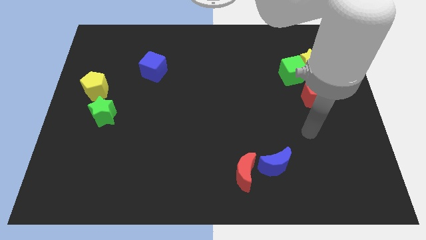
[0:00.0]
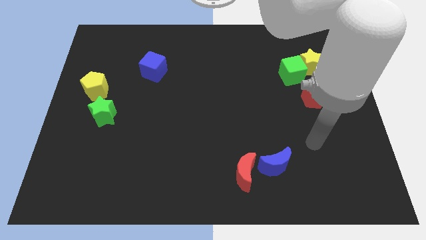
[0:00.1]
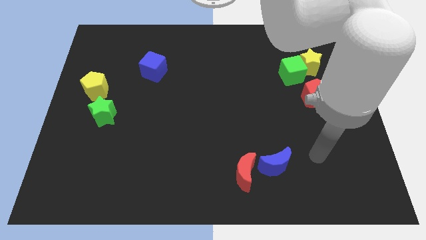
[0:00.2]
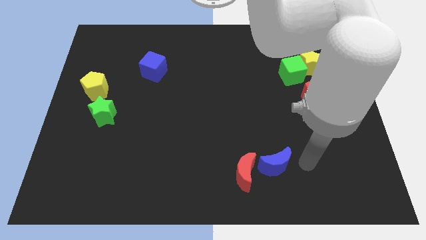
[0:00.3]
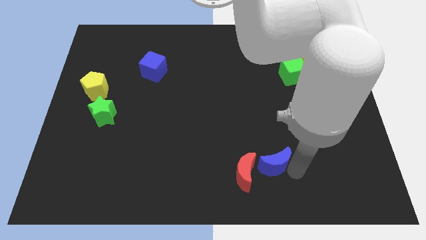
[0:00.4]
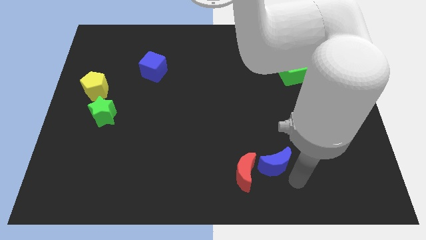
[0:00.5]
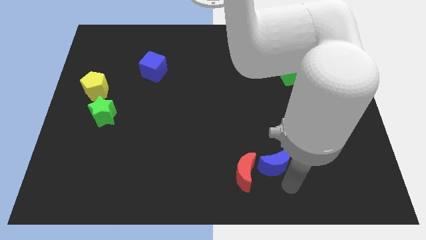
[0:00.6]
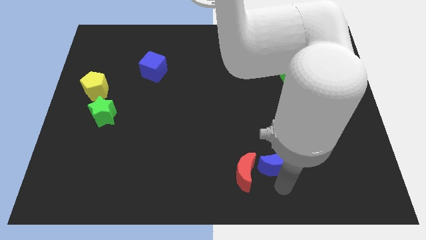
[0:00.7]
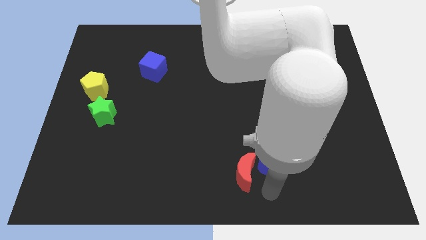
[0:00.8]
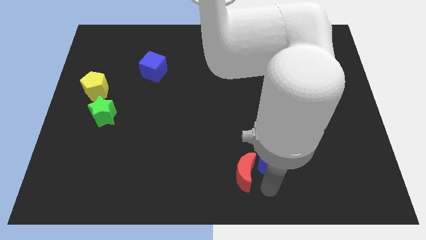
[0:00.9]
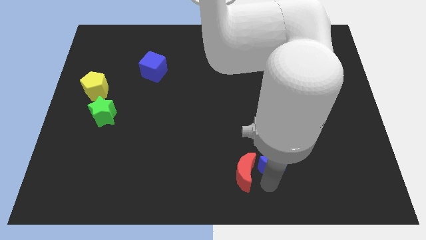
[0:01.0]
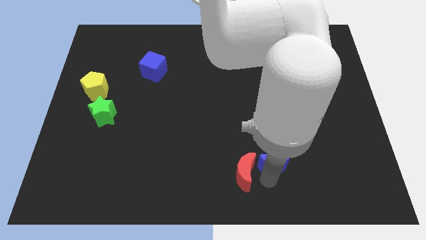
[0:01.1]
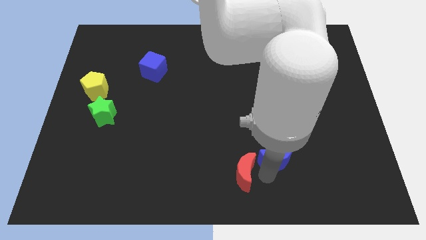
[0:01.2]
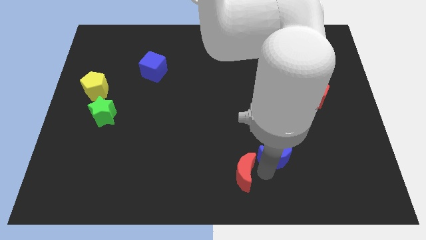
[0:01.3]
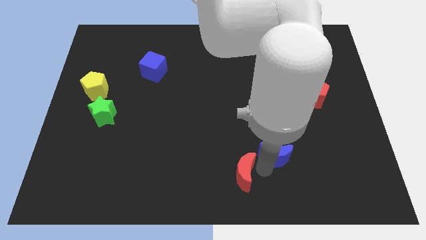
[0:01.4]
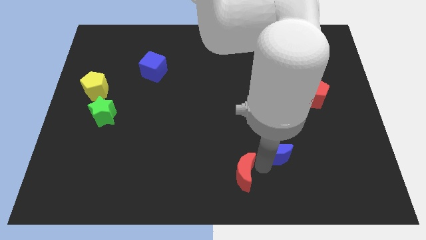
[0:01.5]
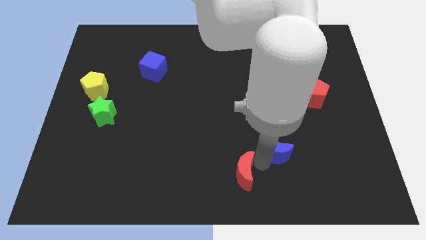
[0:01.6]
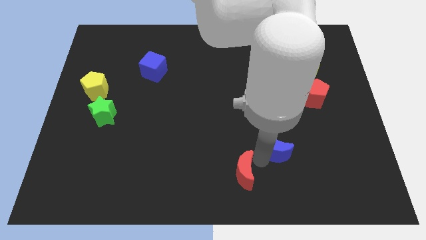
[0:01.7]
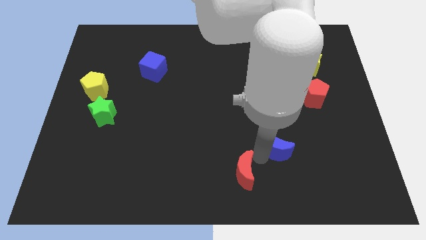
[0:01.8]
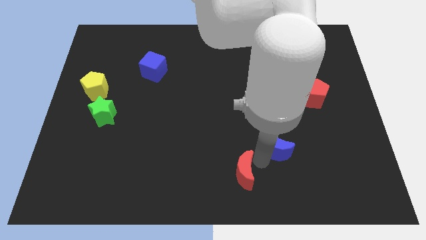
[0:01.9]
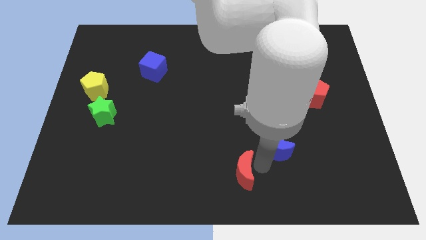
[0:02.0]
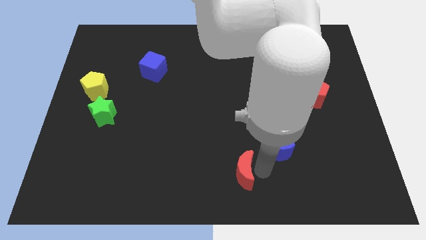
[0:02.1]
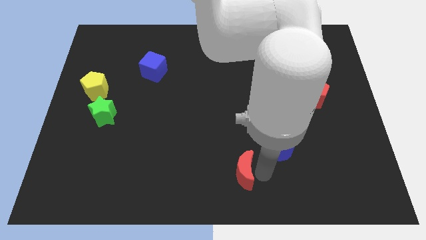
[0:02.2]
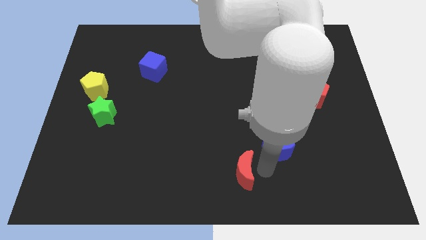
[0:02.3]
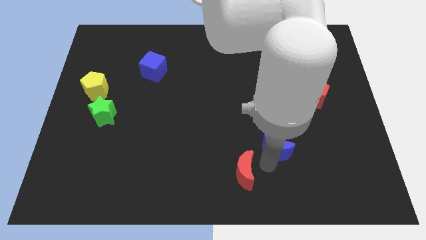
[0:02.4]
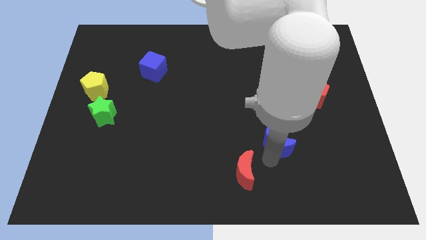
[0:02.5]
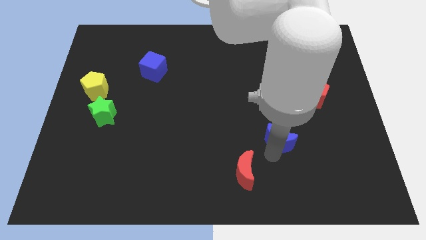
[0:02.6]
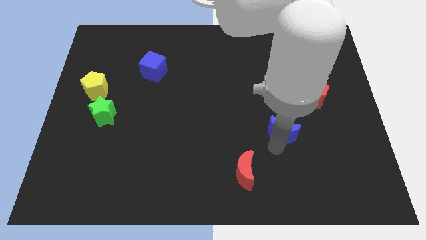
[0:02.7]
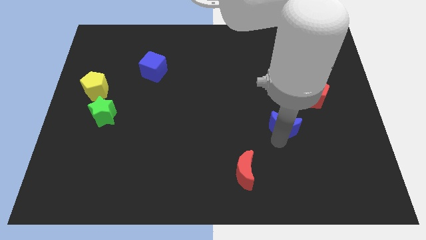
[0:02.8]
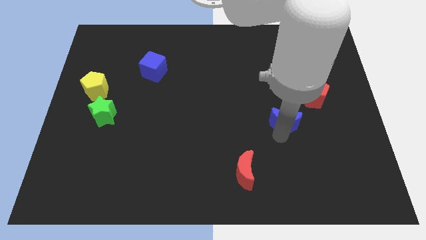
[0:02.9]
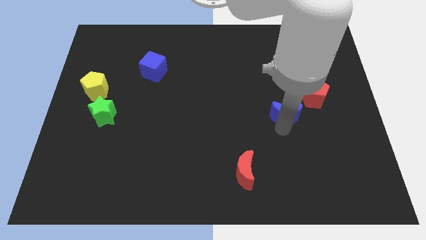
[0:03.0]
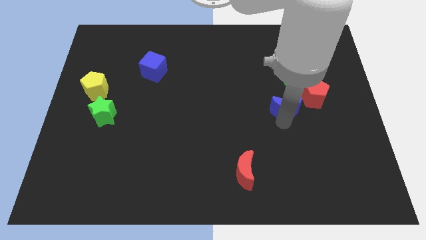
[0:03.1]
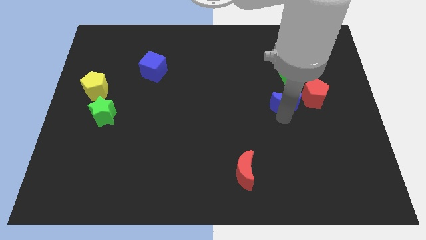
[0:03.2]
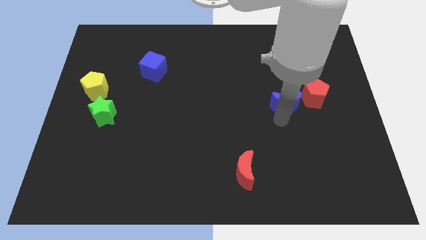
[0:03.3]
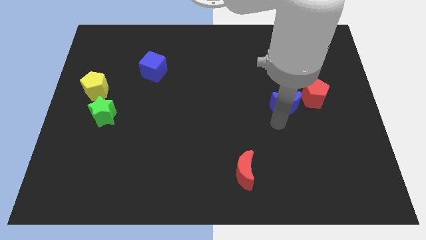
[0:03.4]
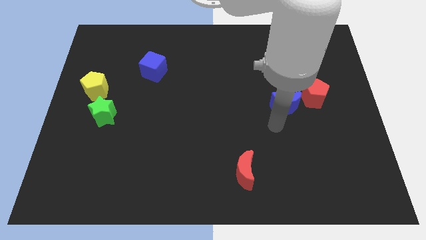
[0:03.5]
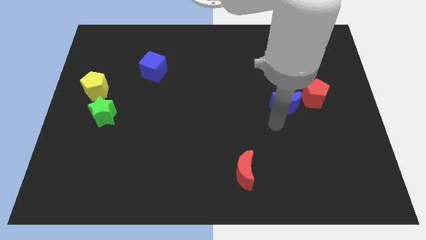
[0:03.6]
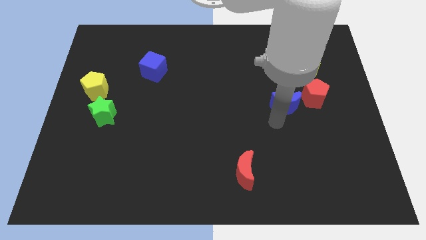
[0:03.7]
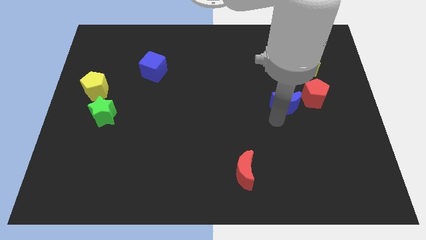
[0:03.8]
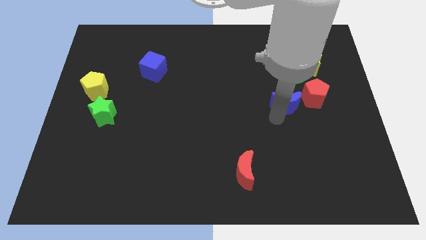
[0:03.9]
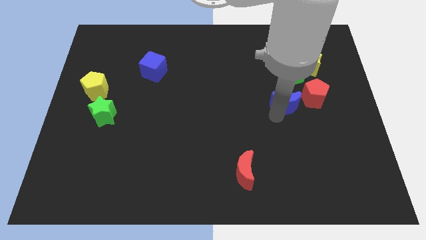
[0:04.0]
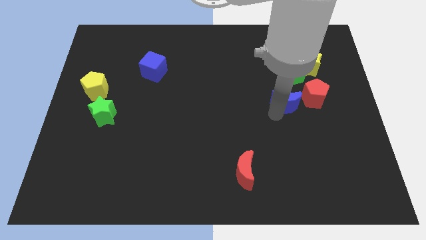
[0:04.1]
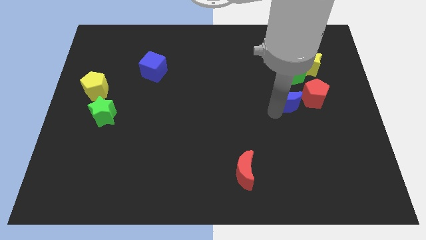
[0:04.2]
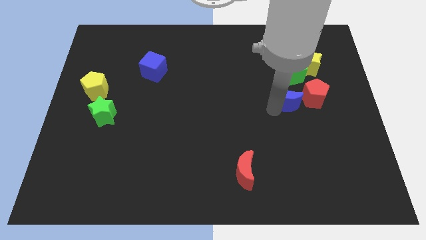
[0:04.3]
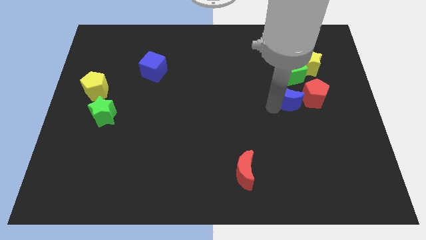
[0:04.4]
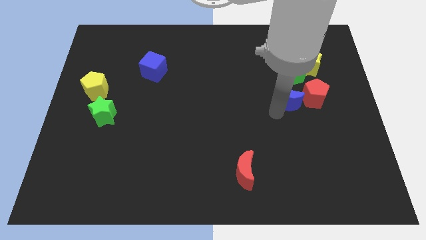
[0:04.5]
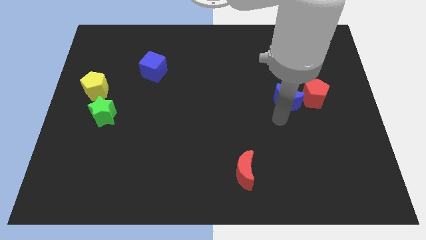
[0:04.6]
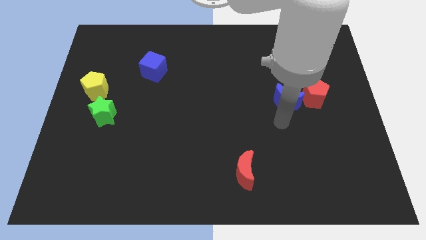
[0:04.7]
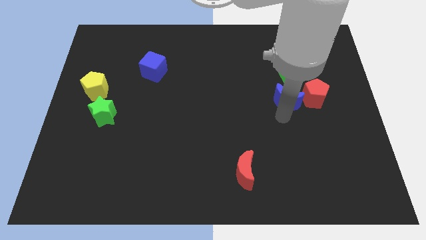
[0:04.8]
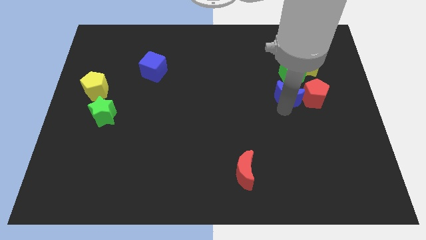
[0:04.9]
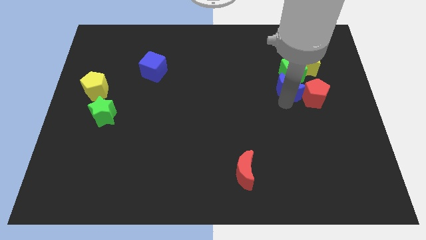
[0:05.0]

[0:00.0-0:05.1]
slide the blue moon next to the green cube

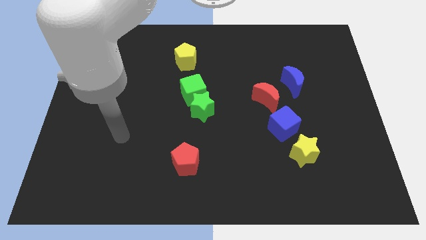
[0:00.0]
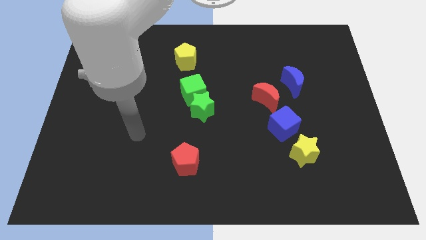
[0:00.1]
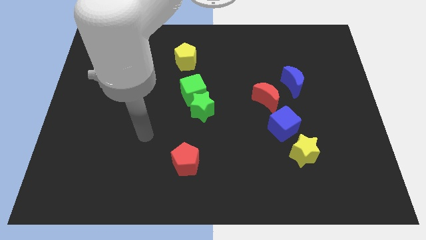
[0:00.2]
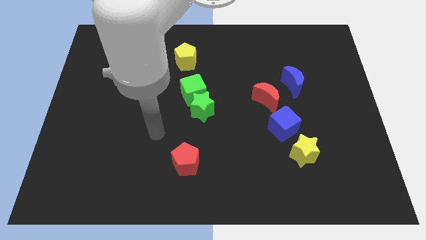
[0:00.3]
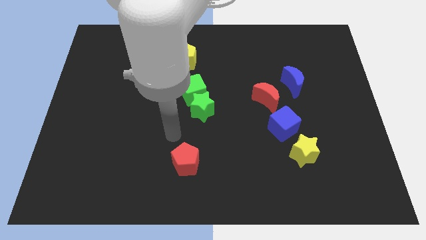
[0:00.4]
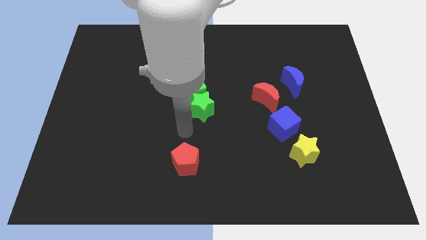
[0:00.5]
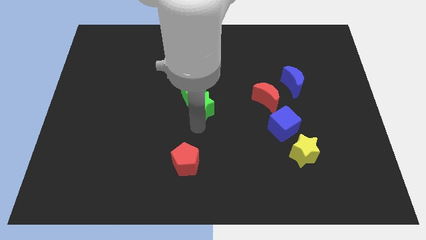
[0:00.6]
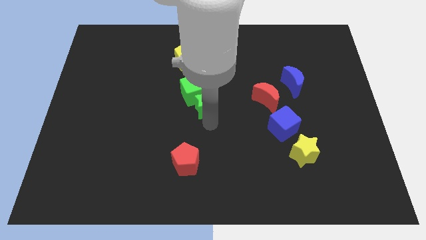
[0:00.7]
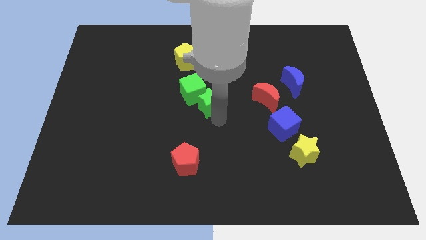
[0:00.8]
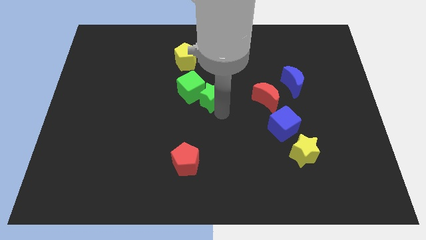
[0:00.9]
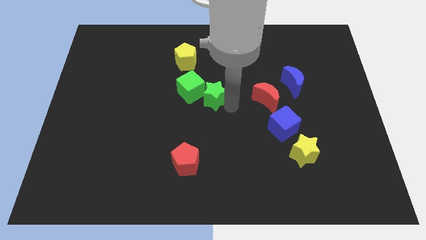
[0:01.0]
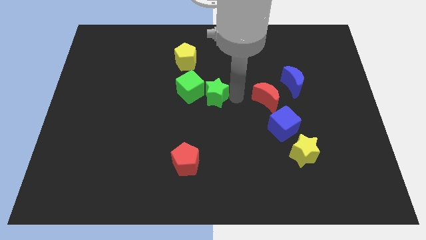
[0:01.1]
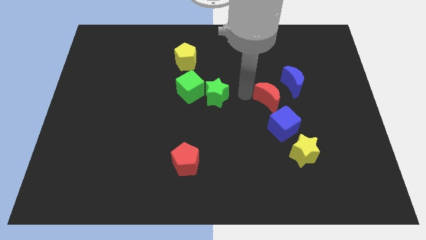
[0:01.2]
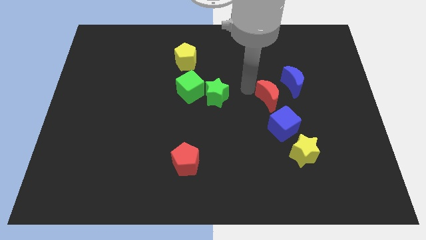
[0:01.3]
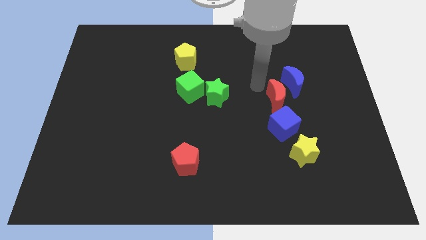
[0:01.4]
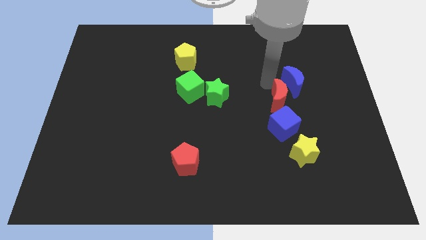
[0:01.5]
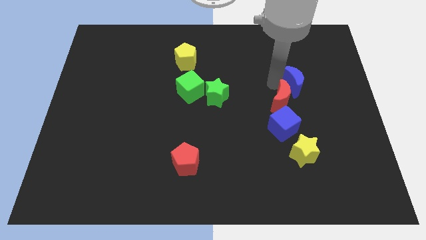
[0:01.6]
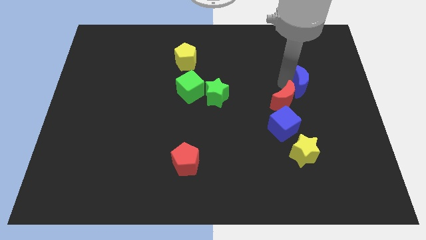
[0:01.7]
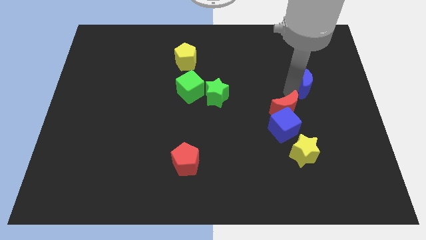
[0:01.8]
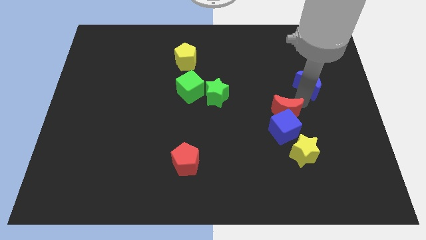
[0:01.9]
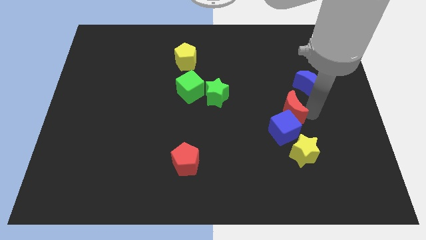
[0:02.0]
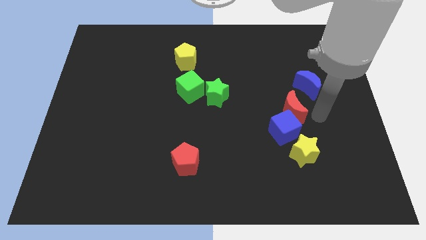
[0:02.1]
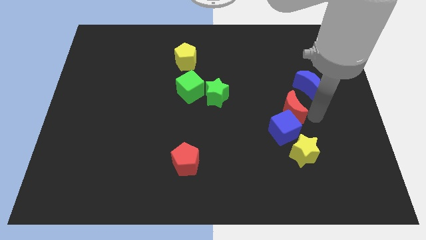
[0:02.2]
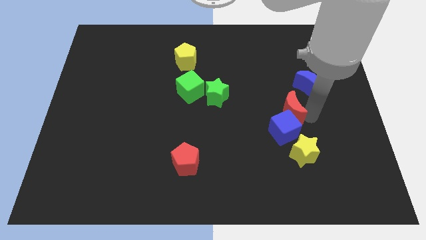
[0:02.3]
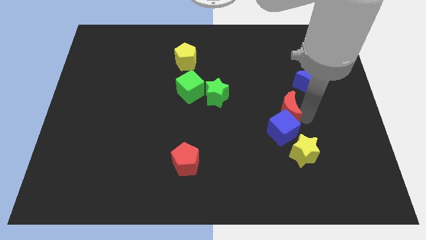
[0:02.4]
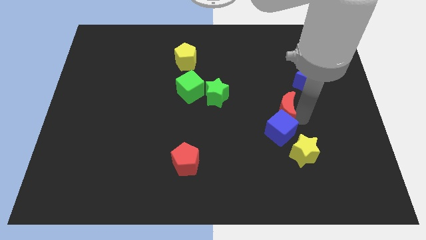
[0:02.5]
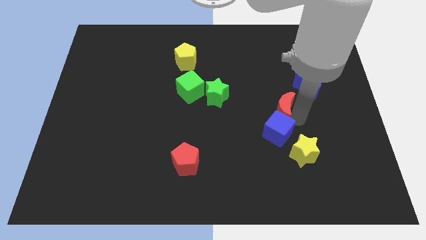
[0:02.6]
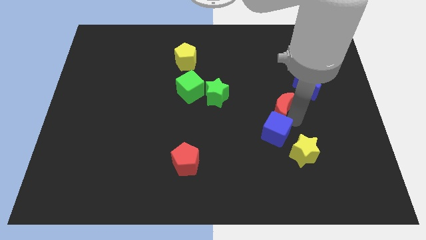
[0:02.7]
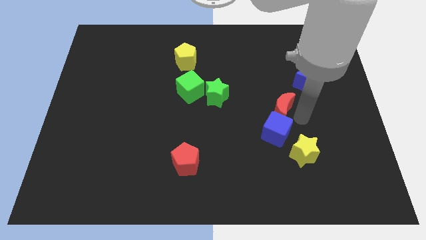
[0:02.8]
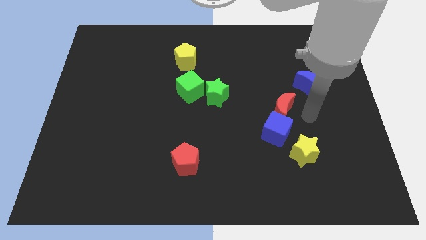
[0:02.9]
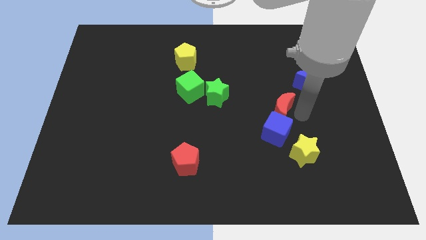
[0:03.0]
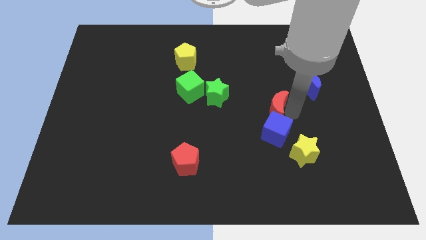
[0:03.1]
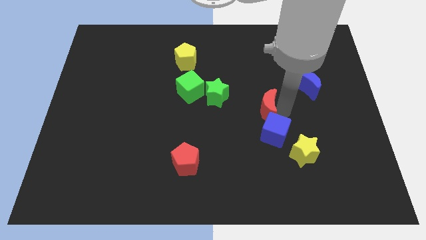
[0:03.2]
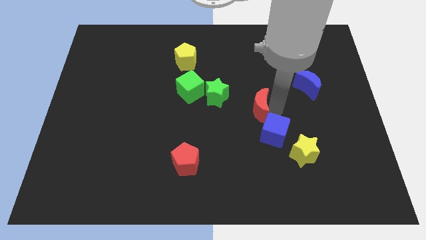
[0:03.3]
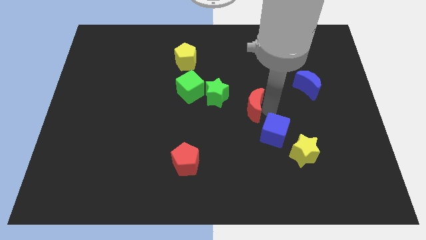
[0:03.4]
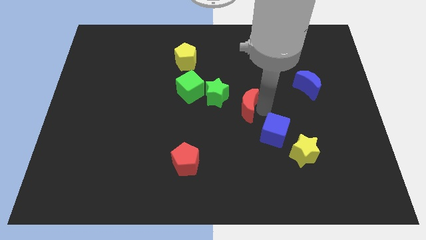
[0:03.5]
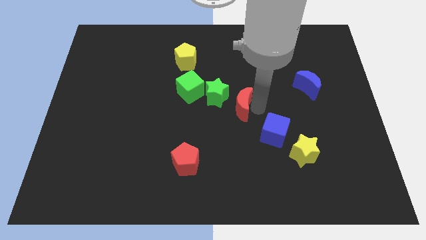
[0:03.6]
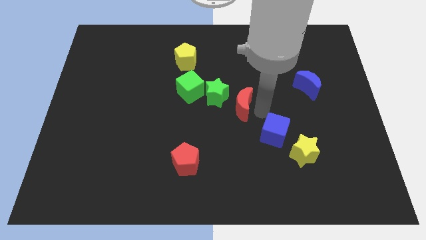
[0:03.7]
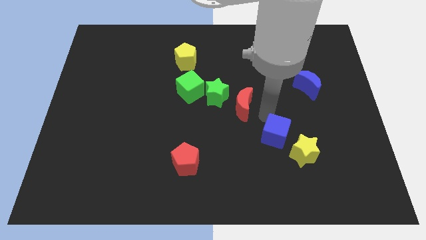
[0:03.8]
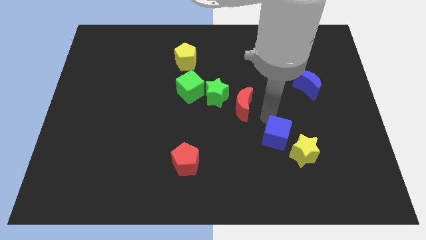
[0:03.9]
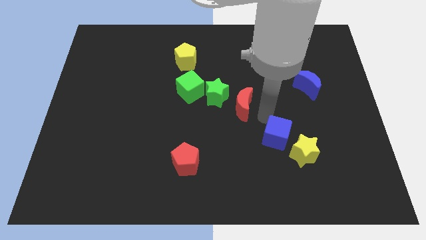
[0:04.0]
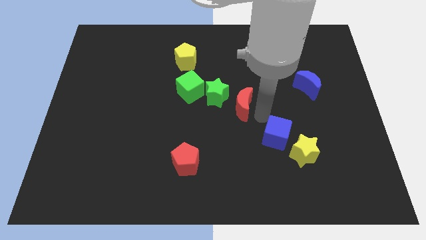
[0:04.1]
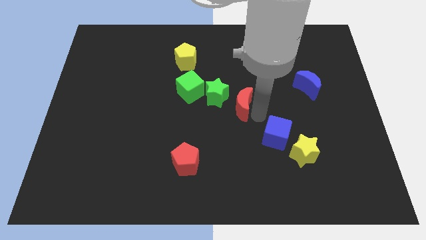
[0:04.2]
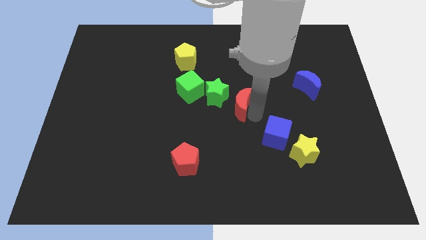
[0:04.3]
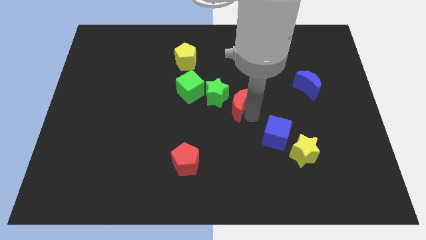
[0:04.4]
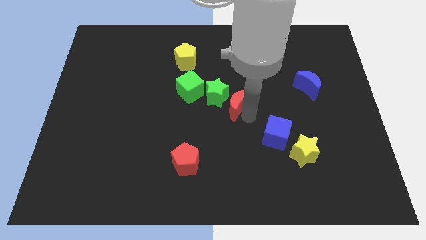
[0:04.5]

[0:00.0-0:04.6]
push the red moon next to the green star
